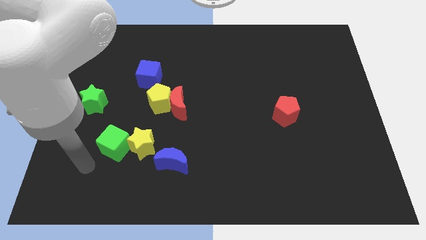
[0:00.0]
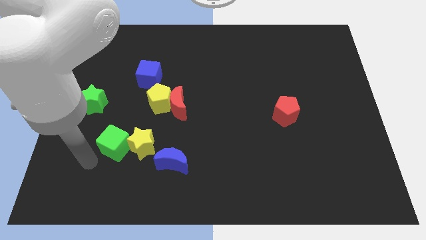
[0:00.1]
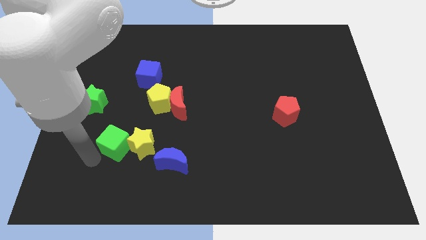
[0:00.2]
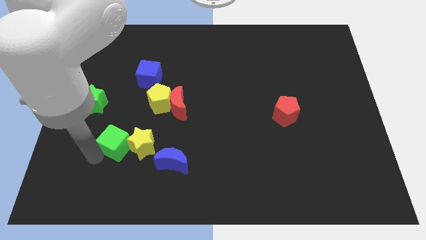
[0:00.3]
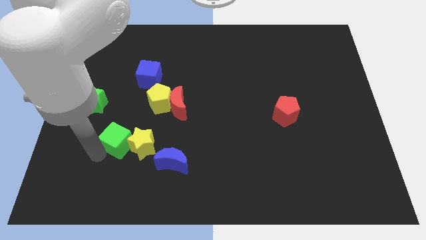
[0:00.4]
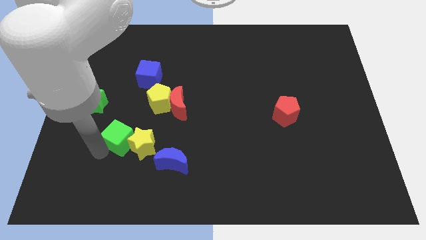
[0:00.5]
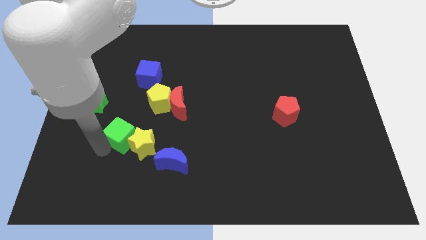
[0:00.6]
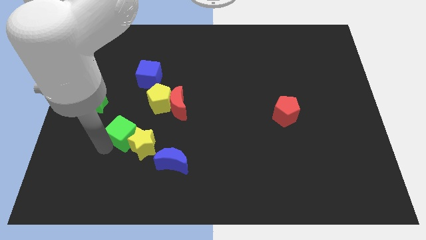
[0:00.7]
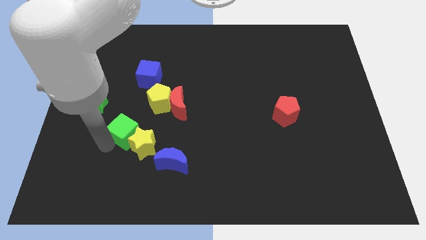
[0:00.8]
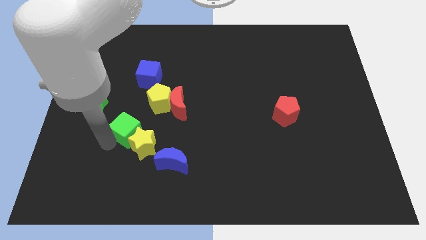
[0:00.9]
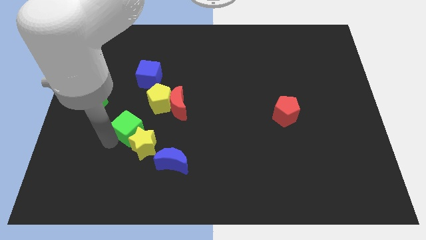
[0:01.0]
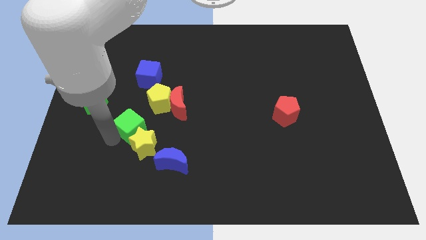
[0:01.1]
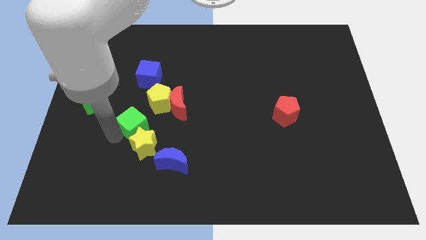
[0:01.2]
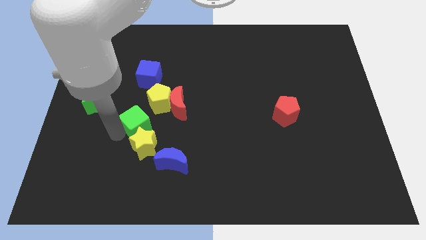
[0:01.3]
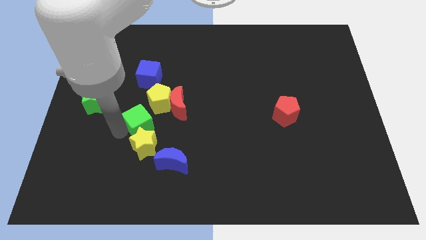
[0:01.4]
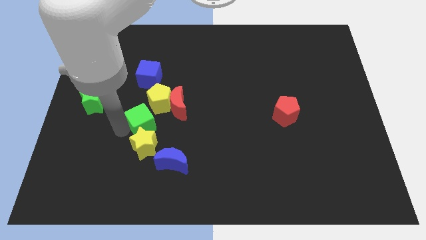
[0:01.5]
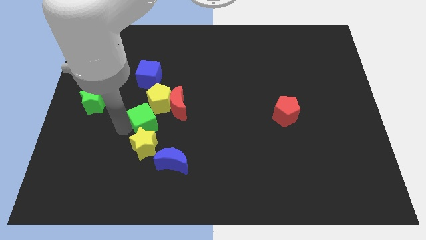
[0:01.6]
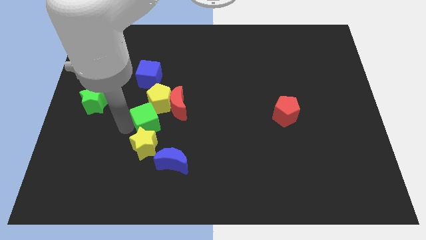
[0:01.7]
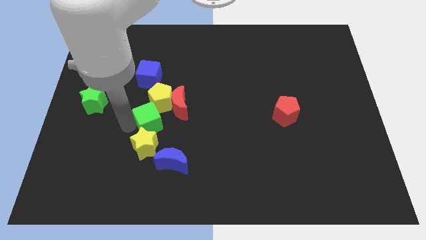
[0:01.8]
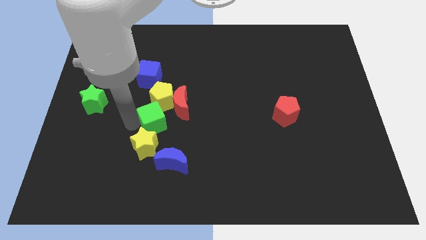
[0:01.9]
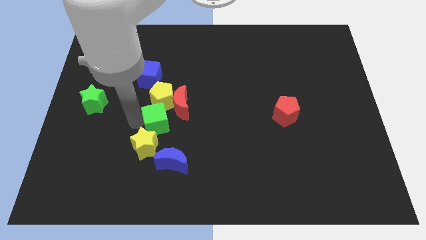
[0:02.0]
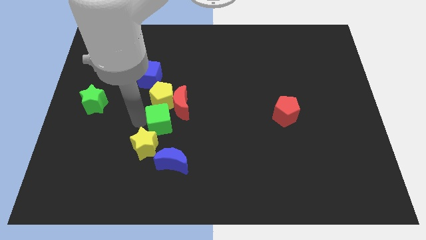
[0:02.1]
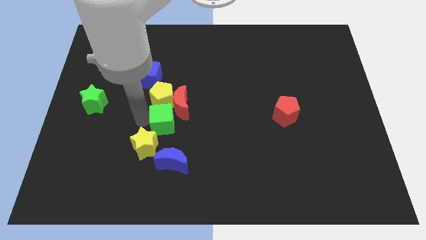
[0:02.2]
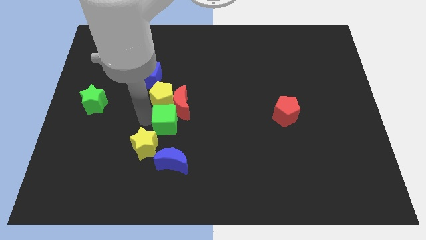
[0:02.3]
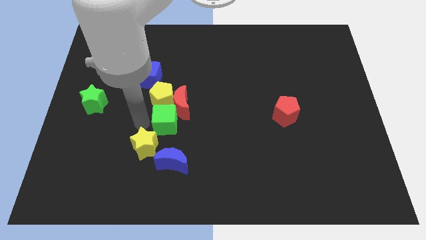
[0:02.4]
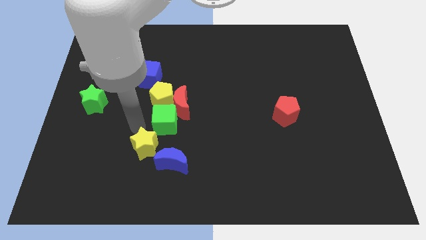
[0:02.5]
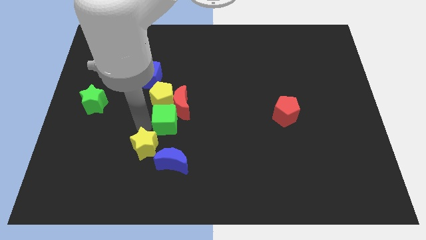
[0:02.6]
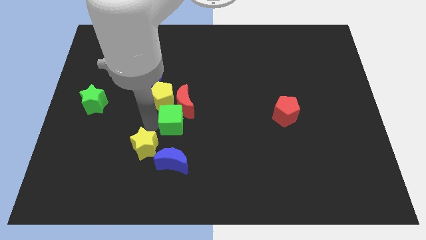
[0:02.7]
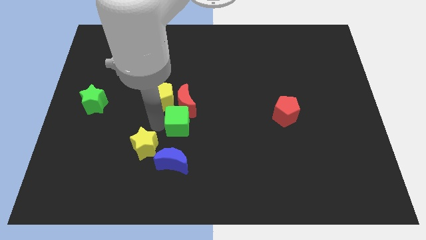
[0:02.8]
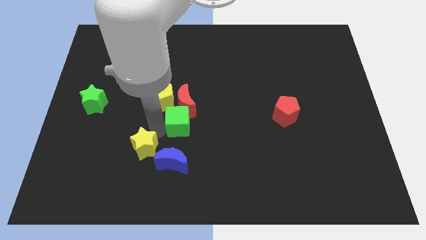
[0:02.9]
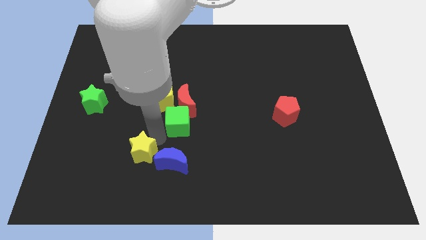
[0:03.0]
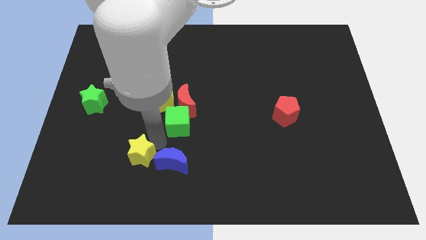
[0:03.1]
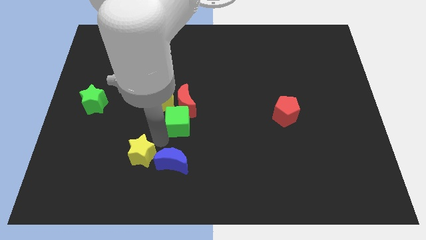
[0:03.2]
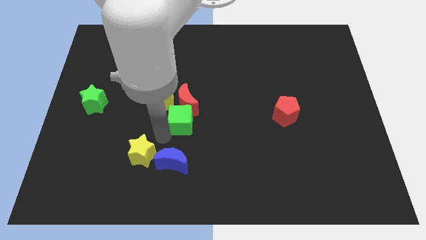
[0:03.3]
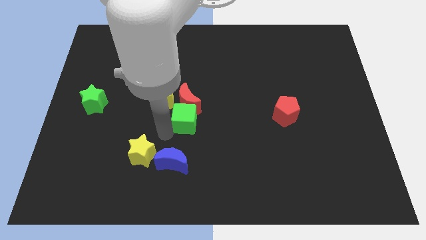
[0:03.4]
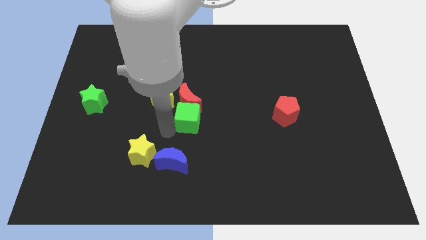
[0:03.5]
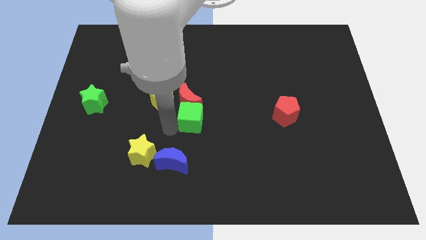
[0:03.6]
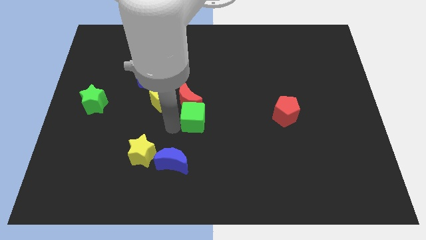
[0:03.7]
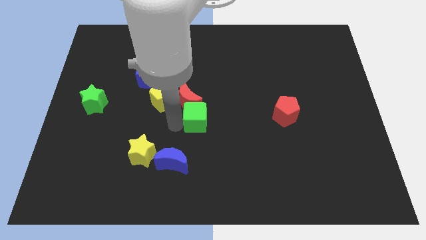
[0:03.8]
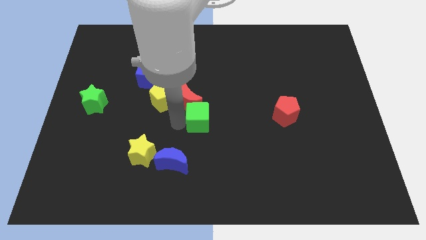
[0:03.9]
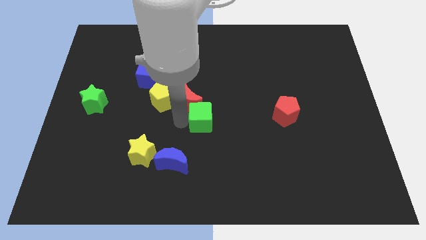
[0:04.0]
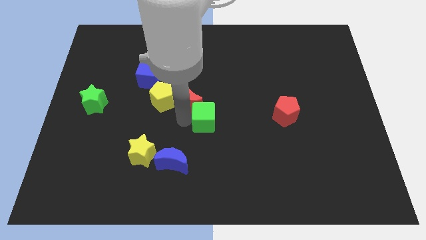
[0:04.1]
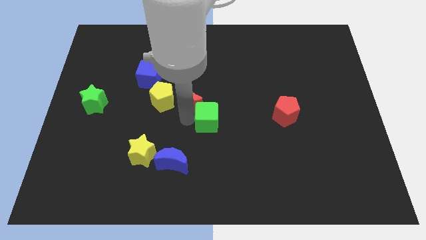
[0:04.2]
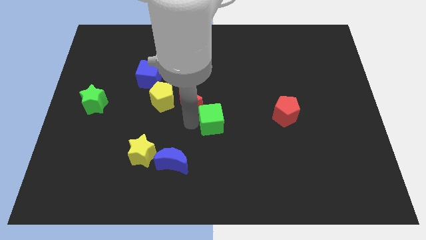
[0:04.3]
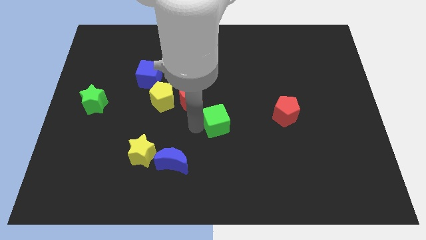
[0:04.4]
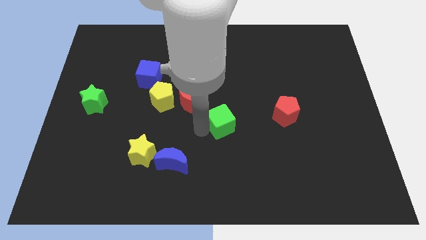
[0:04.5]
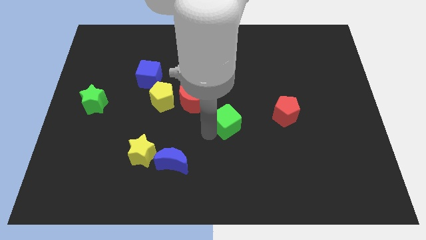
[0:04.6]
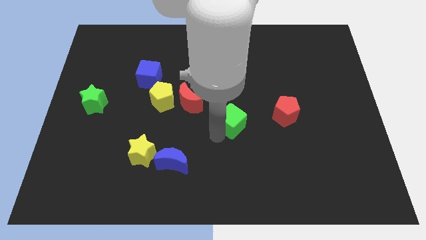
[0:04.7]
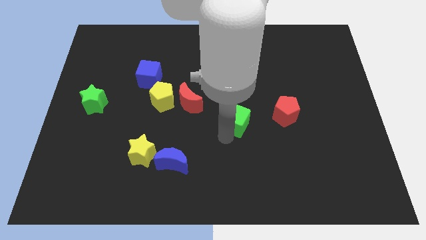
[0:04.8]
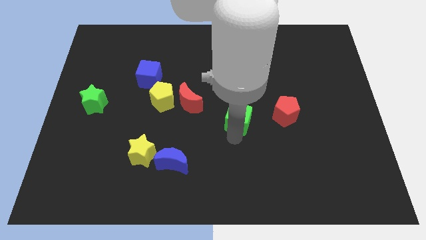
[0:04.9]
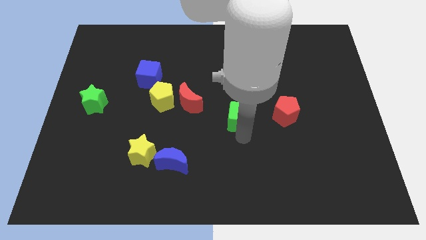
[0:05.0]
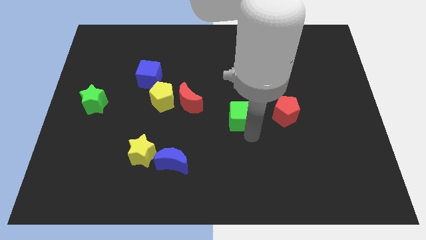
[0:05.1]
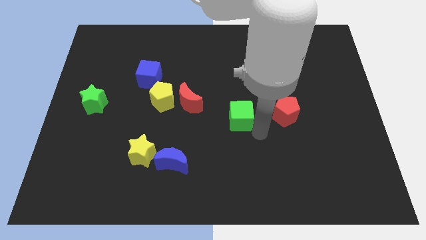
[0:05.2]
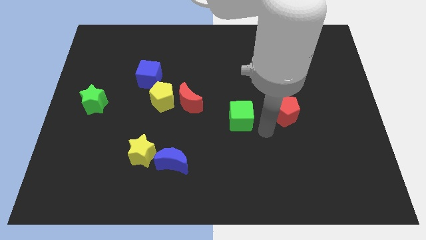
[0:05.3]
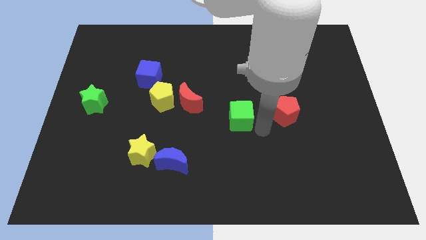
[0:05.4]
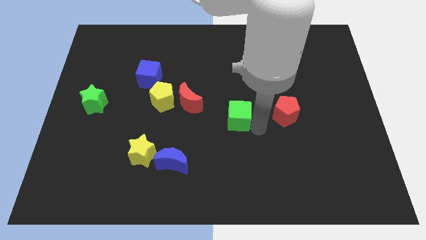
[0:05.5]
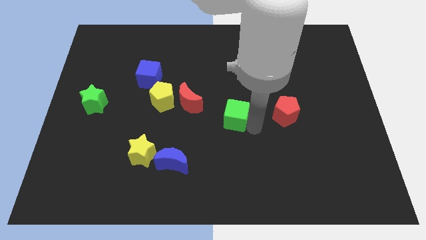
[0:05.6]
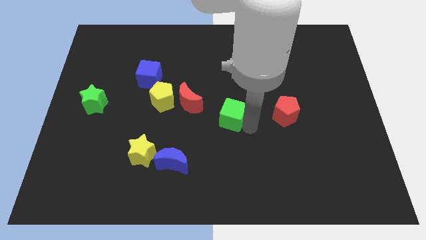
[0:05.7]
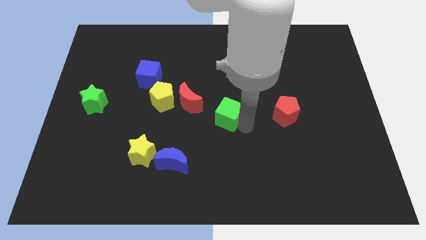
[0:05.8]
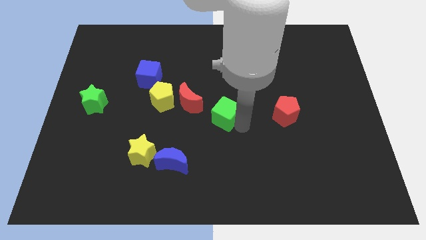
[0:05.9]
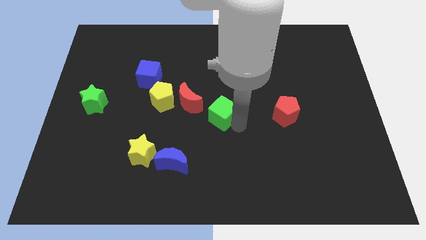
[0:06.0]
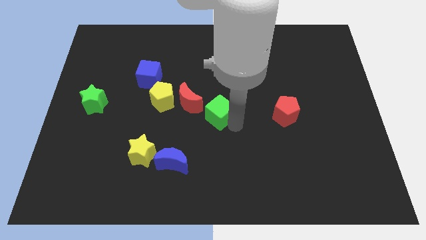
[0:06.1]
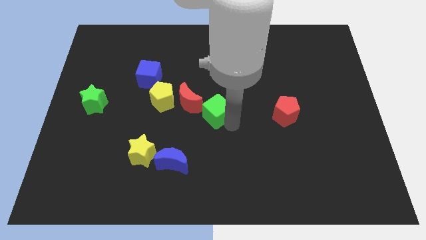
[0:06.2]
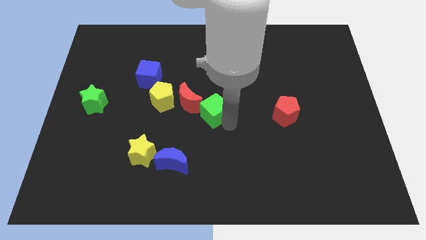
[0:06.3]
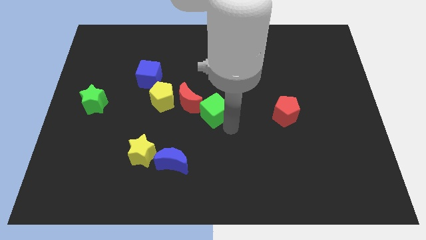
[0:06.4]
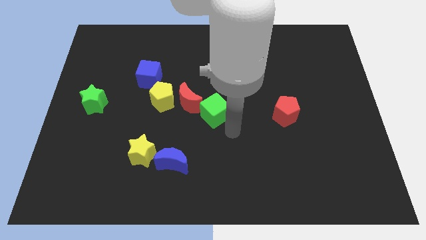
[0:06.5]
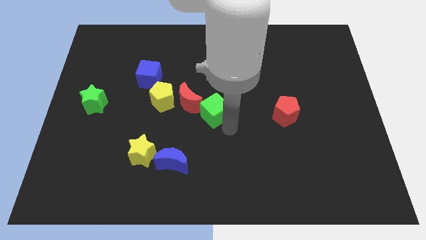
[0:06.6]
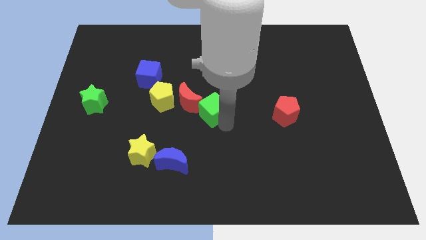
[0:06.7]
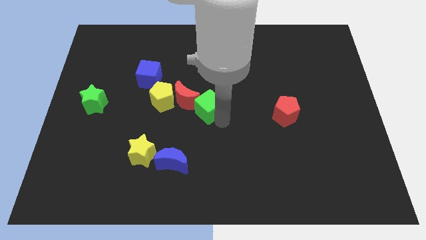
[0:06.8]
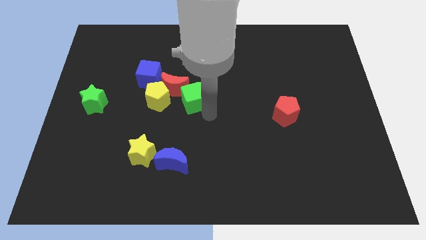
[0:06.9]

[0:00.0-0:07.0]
move the green cube diagonally up and right

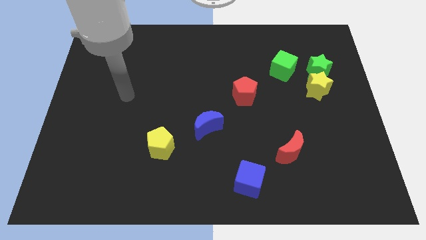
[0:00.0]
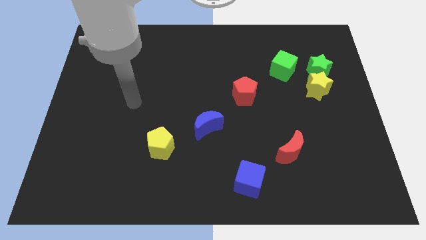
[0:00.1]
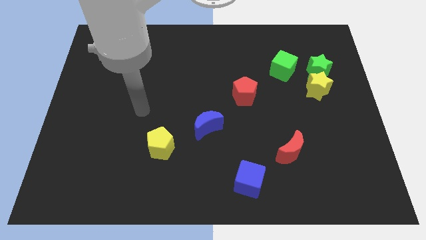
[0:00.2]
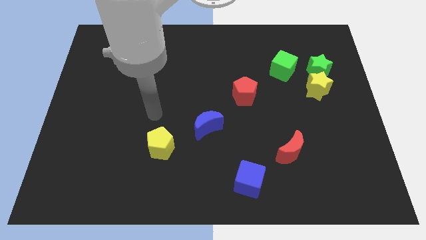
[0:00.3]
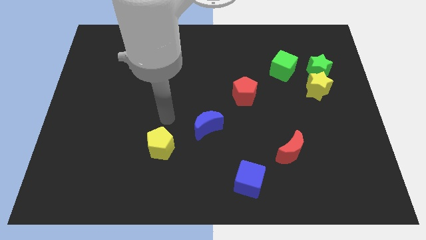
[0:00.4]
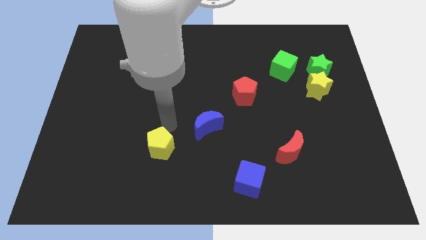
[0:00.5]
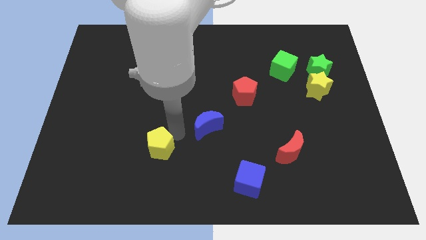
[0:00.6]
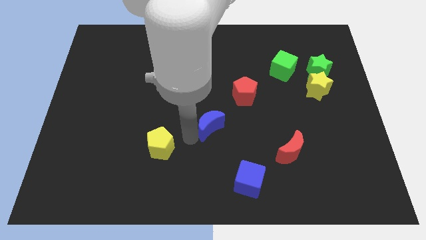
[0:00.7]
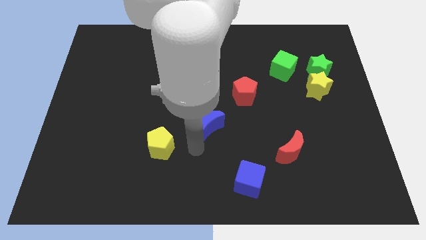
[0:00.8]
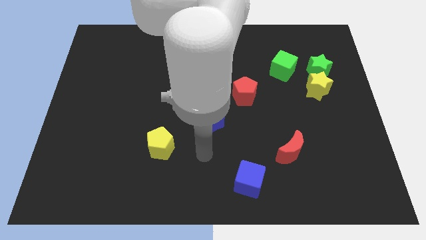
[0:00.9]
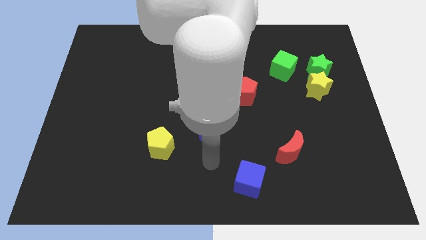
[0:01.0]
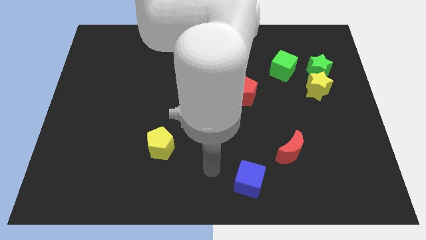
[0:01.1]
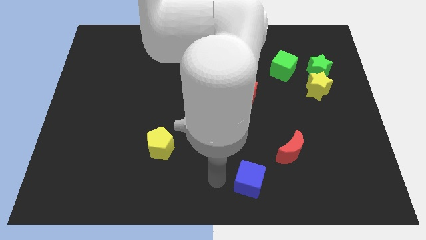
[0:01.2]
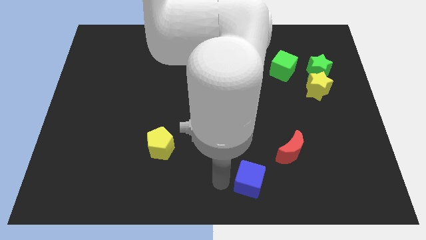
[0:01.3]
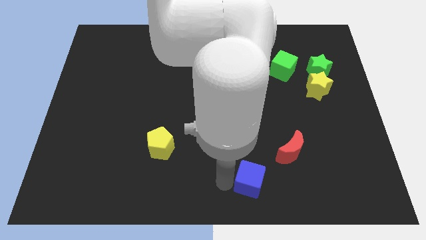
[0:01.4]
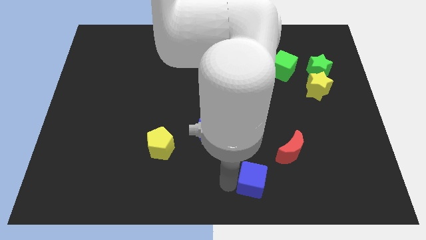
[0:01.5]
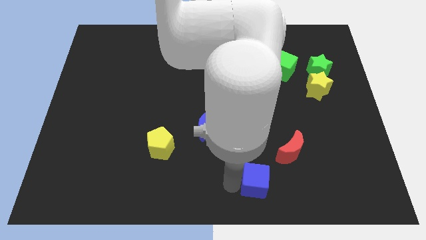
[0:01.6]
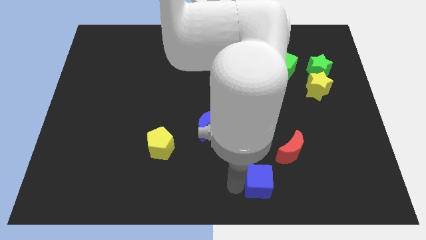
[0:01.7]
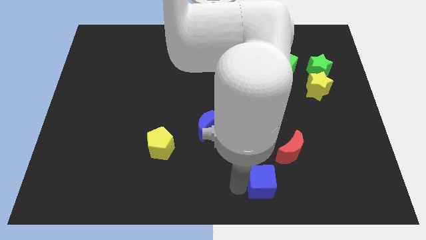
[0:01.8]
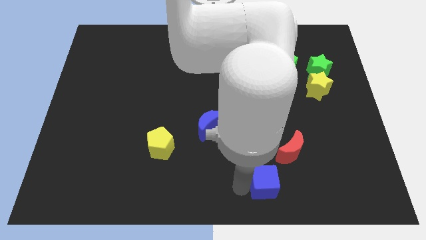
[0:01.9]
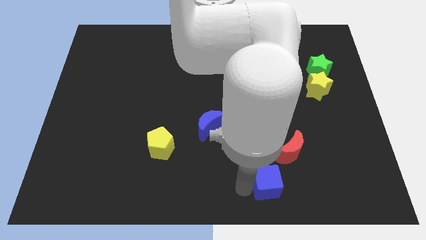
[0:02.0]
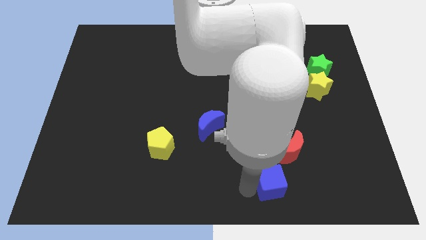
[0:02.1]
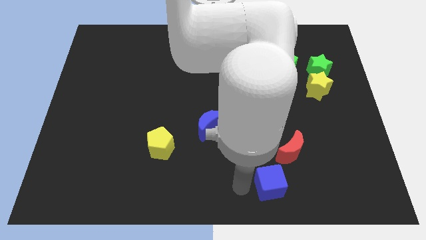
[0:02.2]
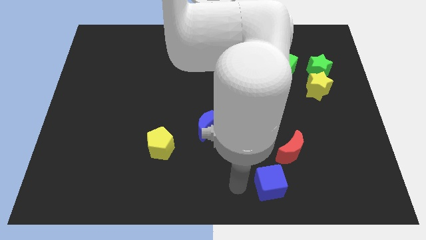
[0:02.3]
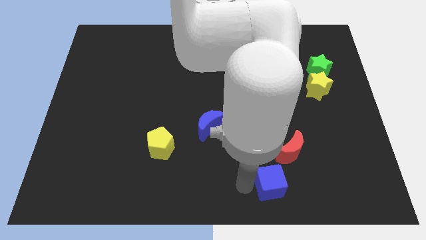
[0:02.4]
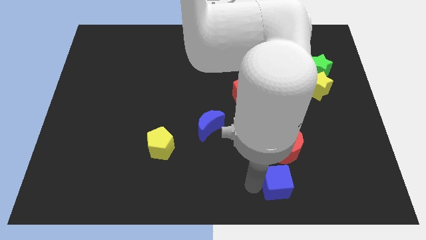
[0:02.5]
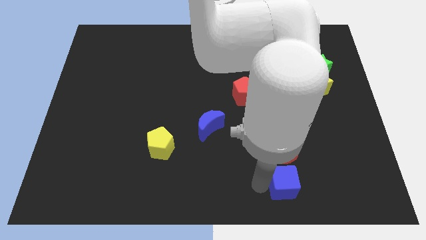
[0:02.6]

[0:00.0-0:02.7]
move the blue cube a little right
